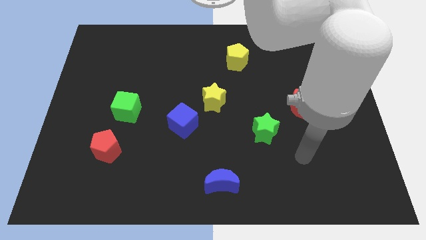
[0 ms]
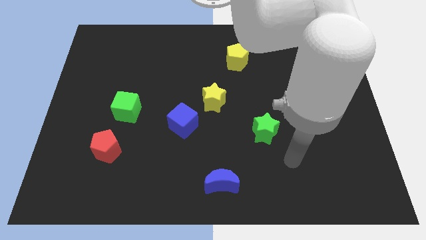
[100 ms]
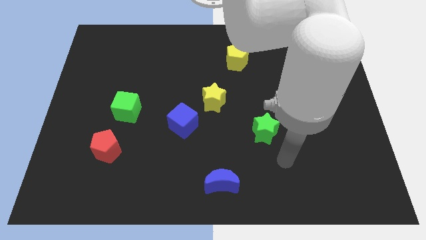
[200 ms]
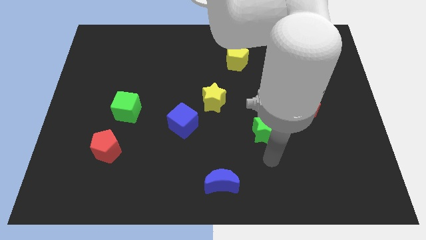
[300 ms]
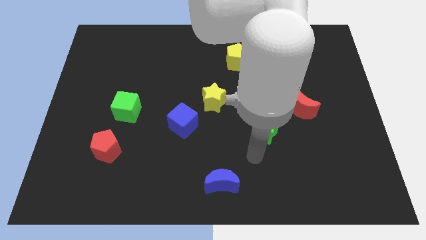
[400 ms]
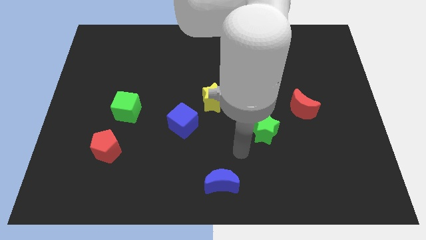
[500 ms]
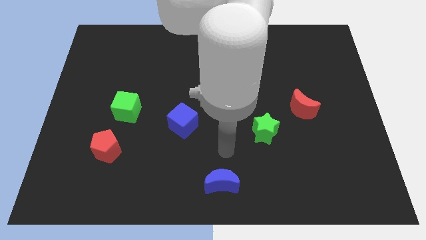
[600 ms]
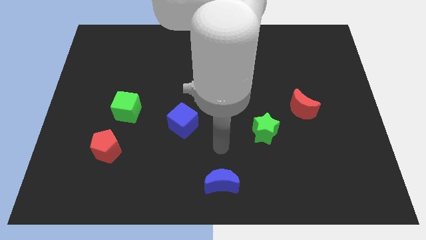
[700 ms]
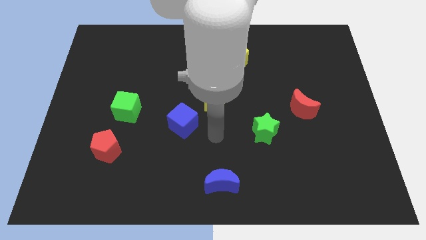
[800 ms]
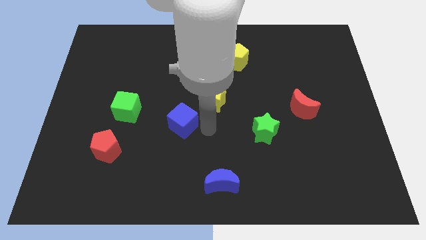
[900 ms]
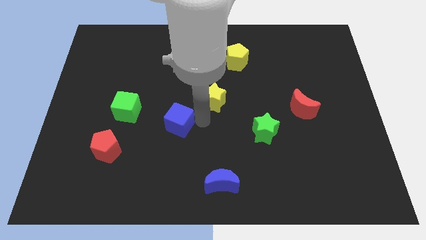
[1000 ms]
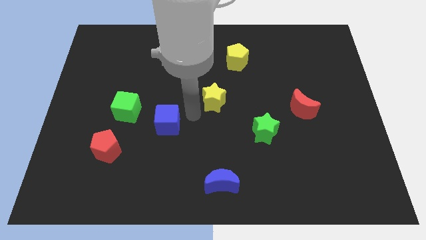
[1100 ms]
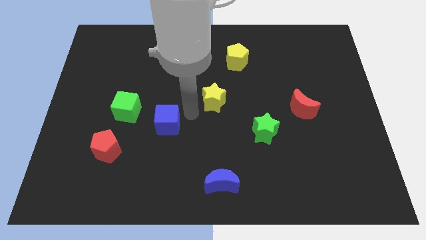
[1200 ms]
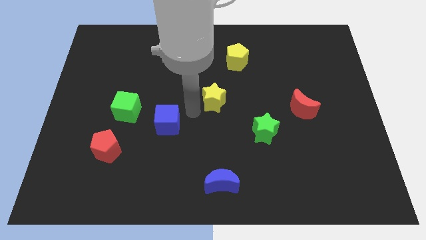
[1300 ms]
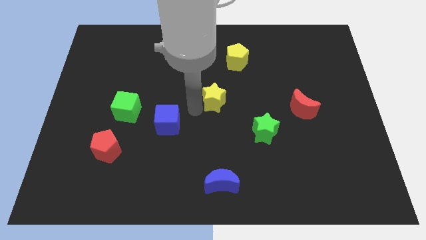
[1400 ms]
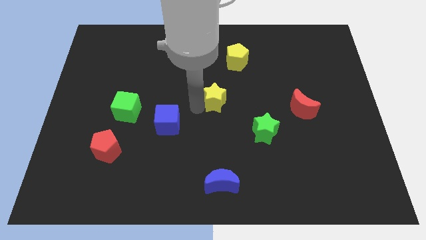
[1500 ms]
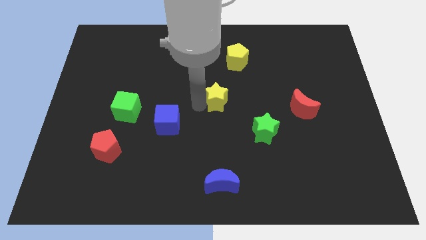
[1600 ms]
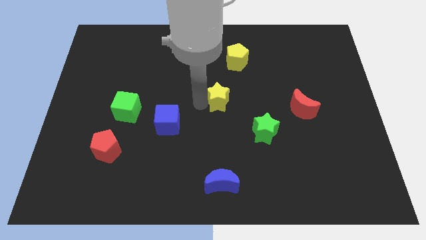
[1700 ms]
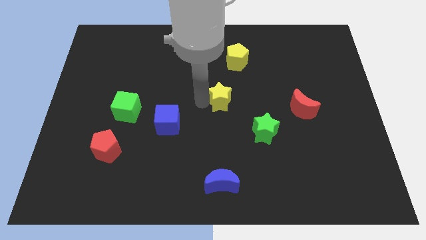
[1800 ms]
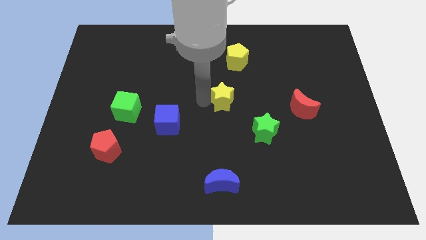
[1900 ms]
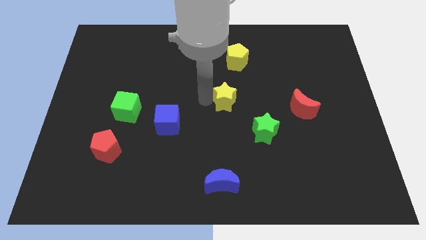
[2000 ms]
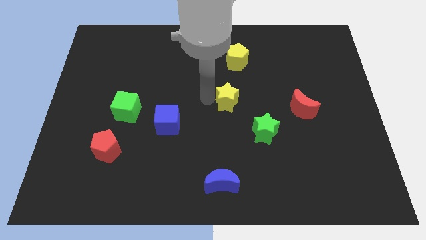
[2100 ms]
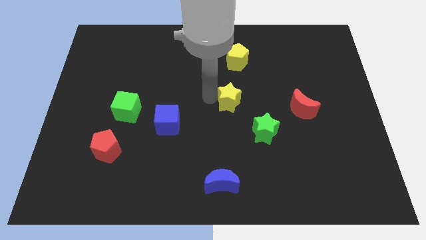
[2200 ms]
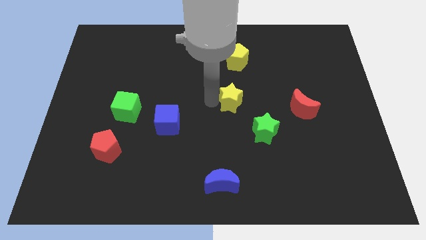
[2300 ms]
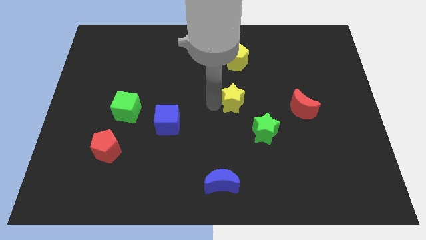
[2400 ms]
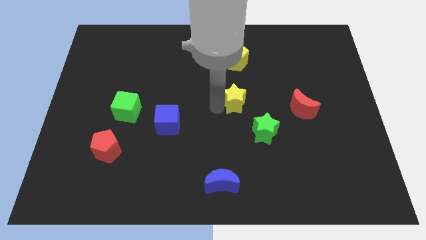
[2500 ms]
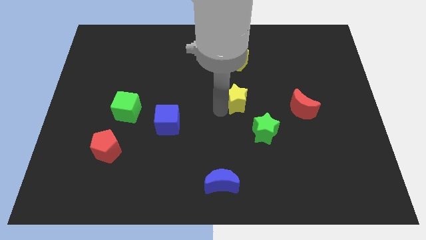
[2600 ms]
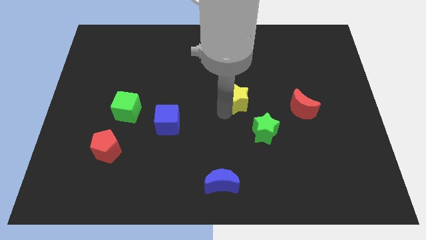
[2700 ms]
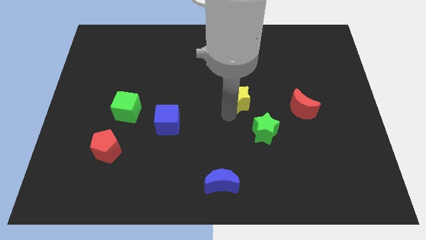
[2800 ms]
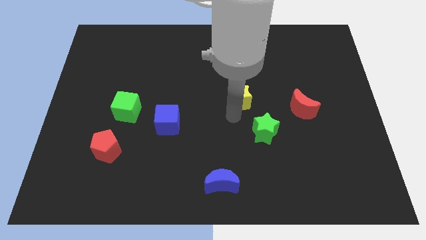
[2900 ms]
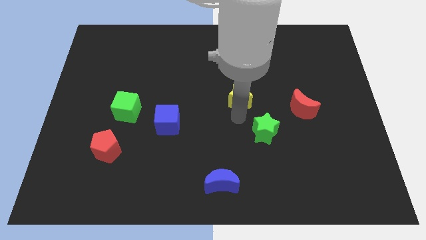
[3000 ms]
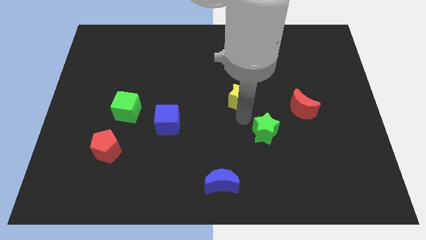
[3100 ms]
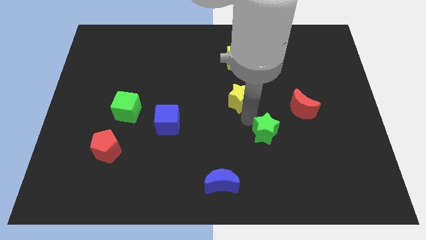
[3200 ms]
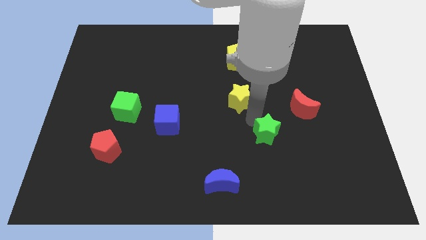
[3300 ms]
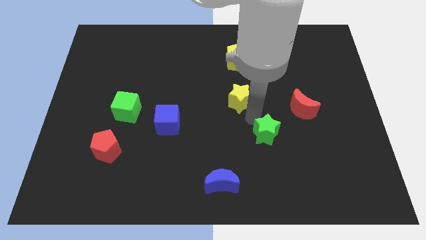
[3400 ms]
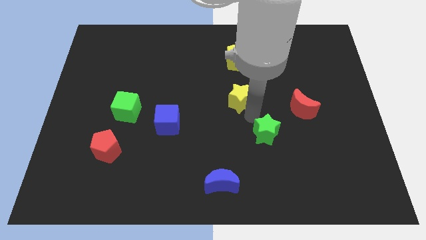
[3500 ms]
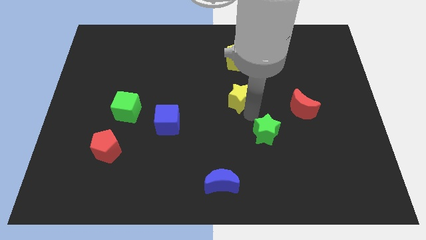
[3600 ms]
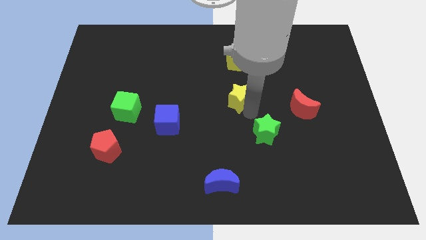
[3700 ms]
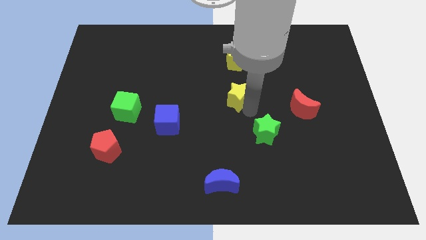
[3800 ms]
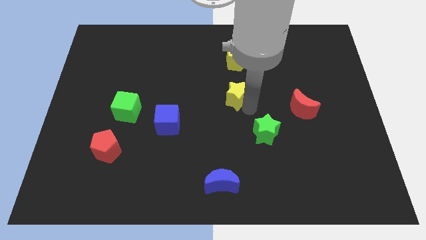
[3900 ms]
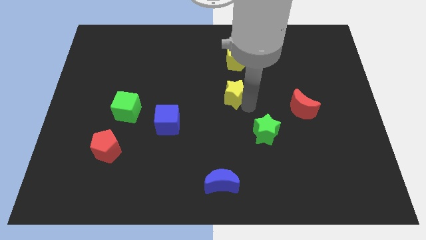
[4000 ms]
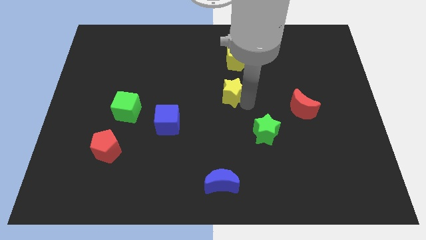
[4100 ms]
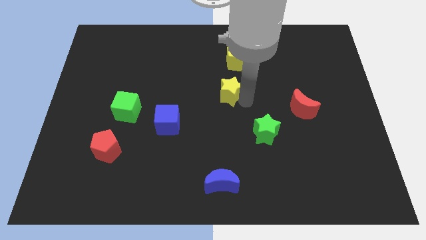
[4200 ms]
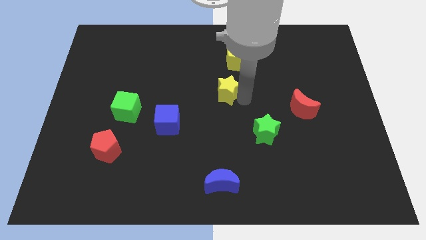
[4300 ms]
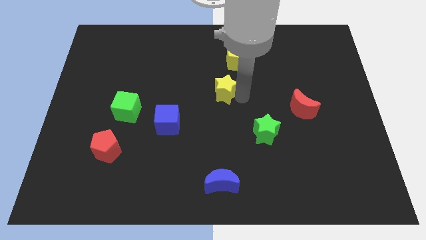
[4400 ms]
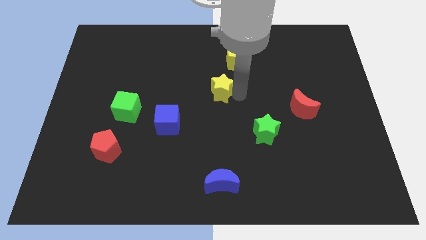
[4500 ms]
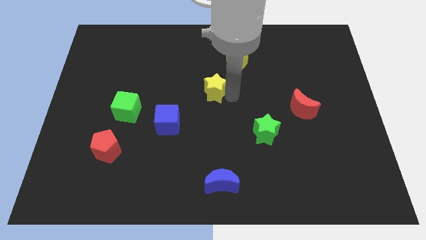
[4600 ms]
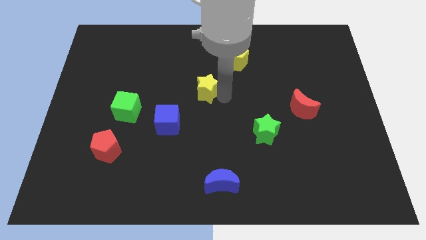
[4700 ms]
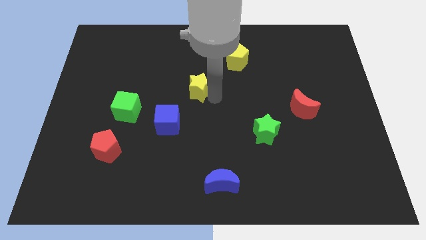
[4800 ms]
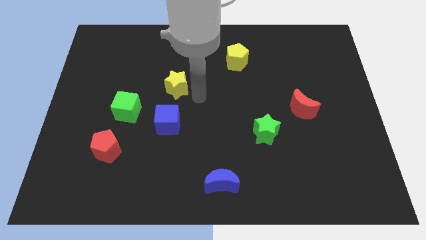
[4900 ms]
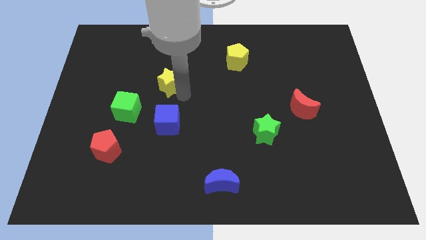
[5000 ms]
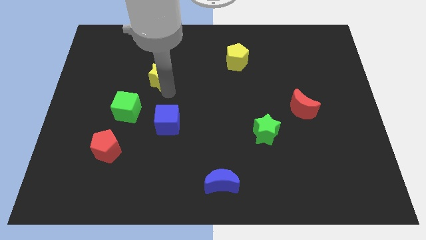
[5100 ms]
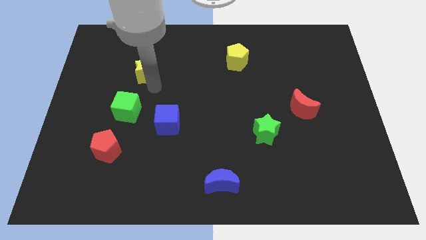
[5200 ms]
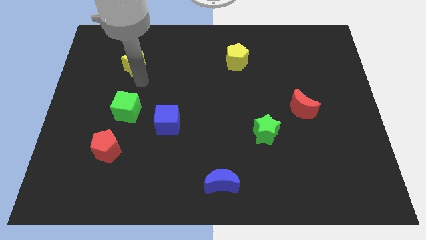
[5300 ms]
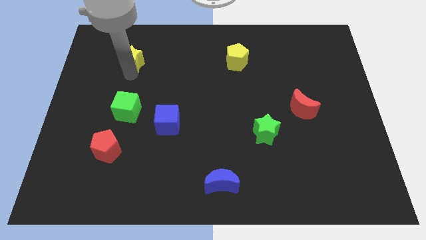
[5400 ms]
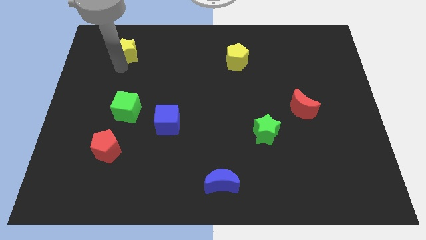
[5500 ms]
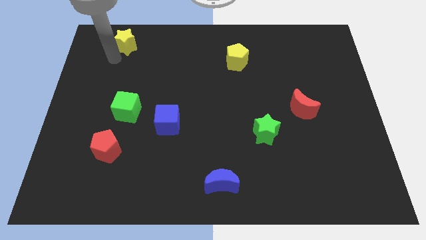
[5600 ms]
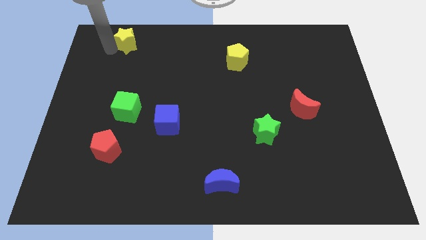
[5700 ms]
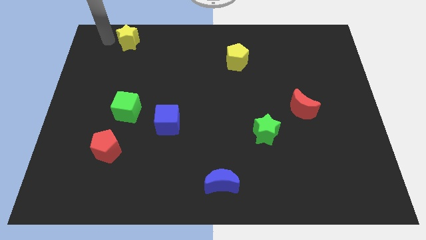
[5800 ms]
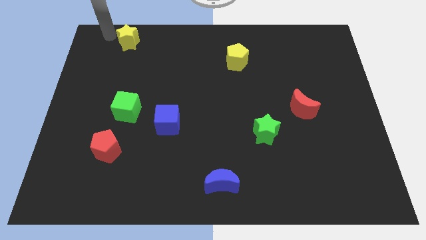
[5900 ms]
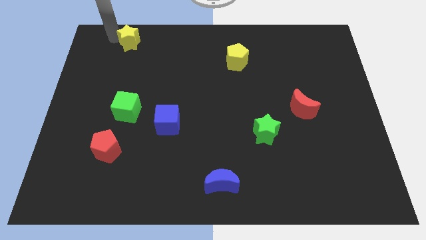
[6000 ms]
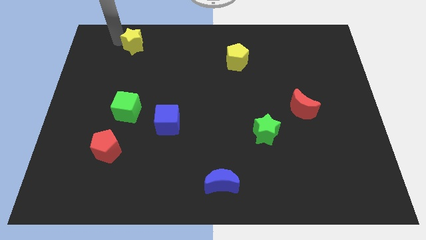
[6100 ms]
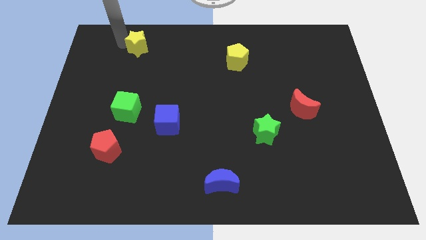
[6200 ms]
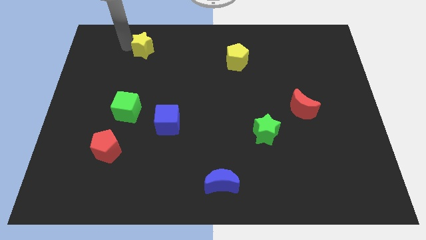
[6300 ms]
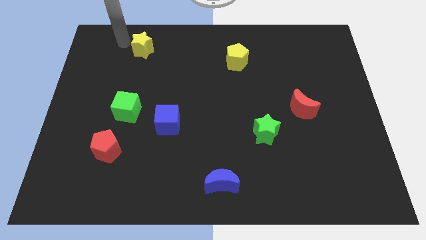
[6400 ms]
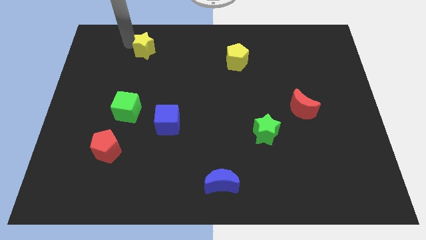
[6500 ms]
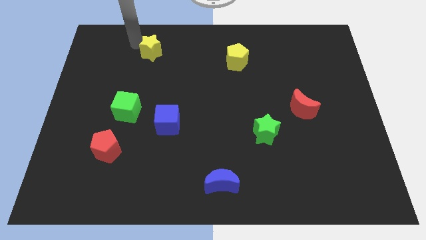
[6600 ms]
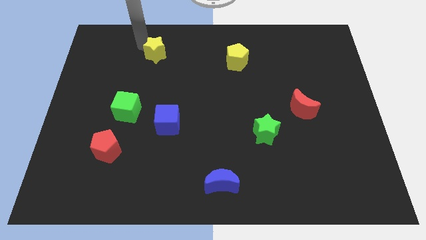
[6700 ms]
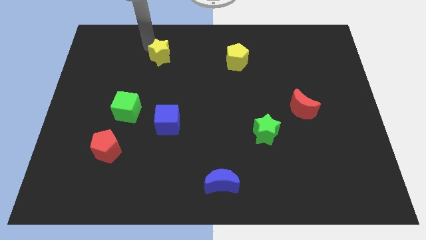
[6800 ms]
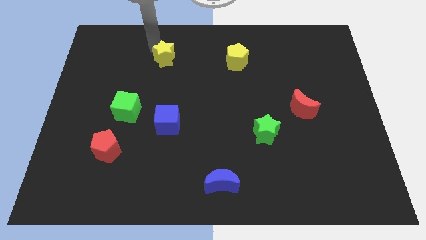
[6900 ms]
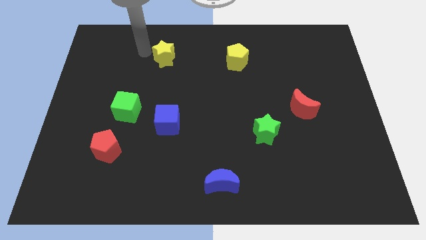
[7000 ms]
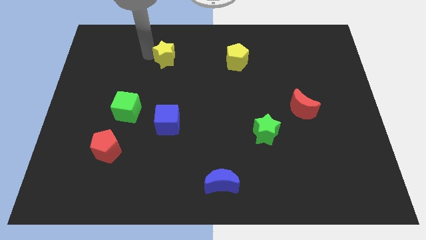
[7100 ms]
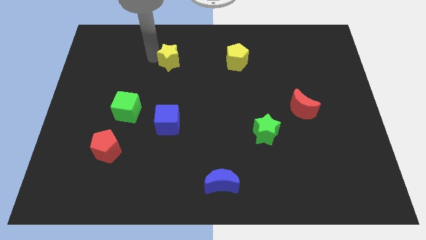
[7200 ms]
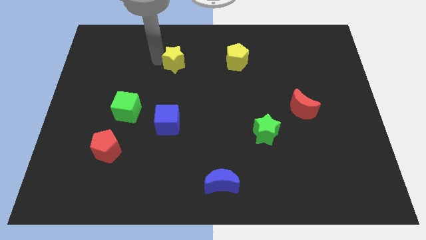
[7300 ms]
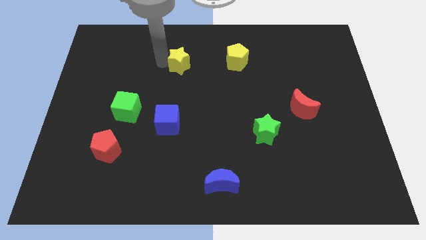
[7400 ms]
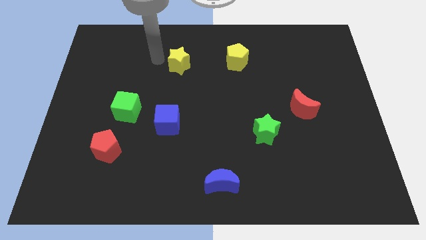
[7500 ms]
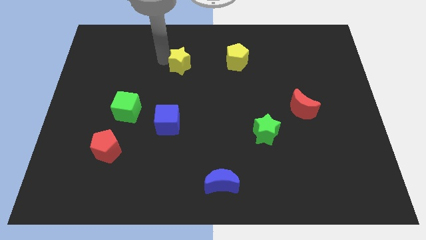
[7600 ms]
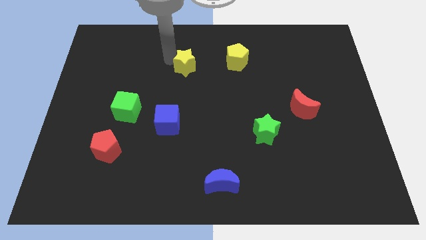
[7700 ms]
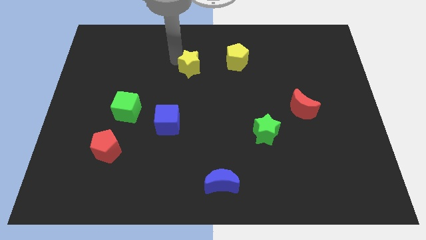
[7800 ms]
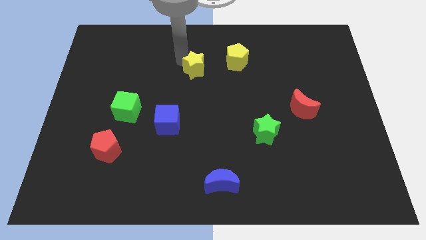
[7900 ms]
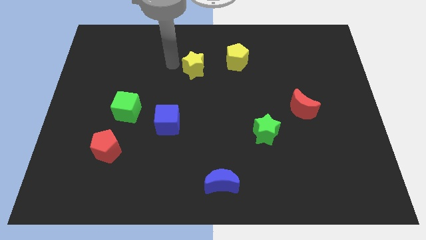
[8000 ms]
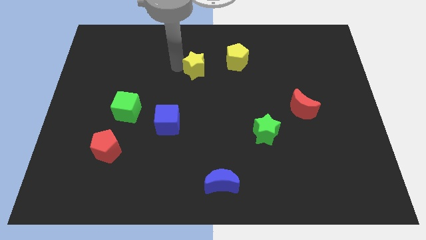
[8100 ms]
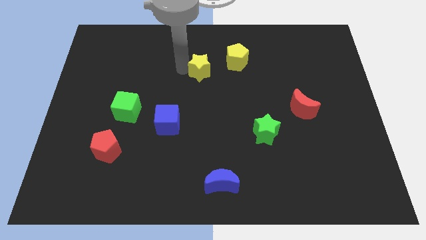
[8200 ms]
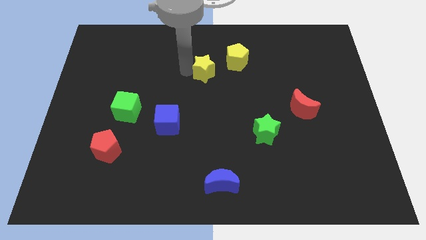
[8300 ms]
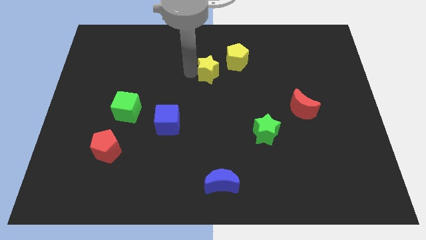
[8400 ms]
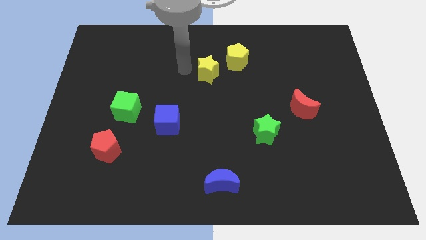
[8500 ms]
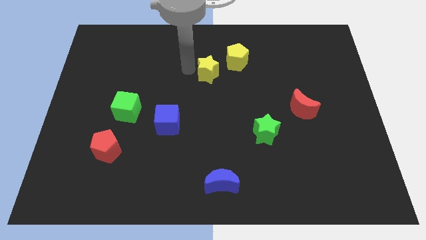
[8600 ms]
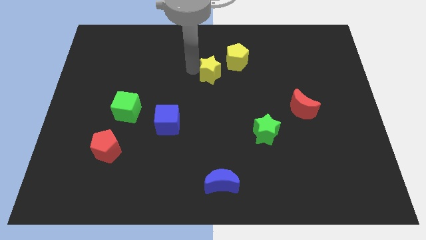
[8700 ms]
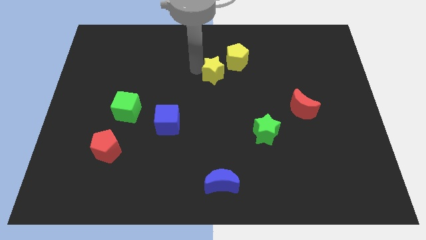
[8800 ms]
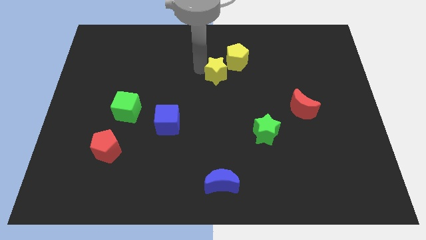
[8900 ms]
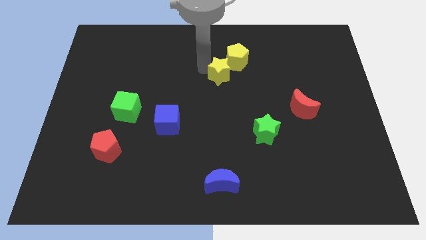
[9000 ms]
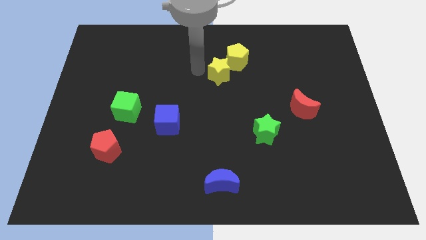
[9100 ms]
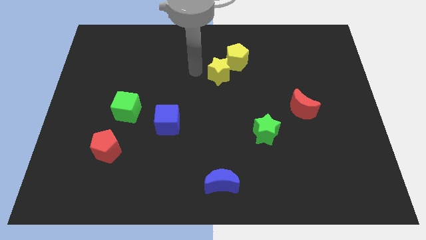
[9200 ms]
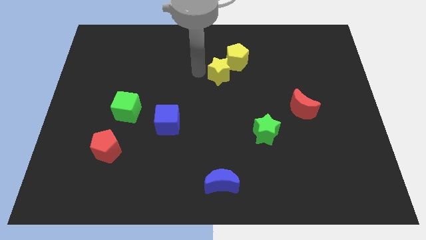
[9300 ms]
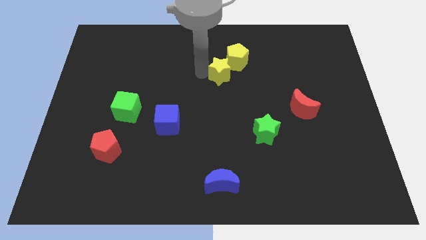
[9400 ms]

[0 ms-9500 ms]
push the yellow star a little up and then to the right
